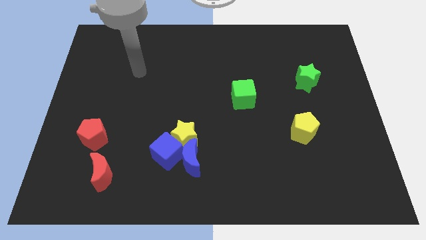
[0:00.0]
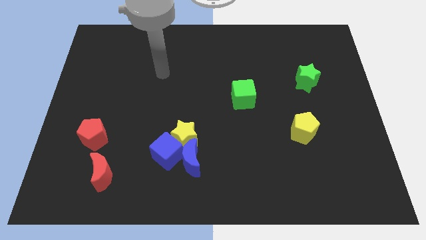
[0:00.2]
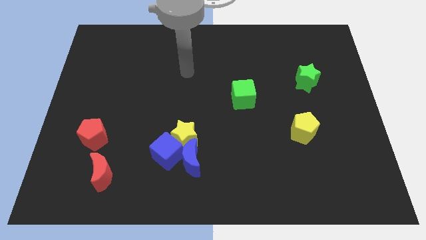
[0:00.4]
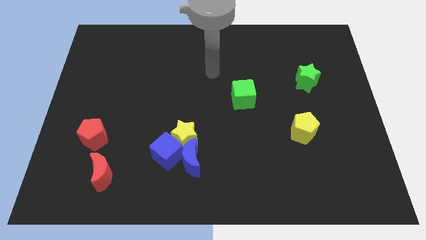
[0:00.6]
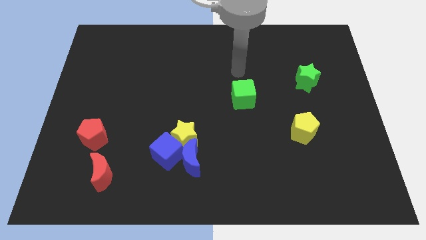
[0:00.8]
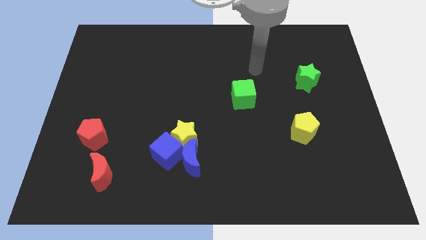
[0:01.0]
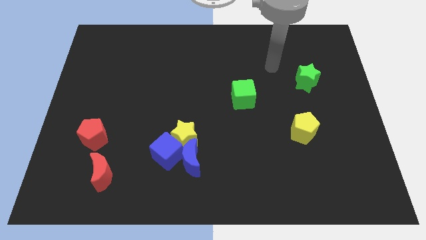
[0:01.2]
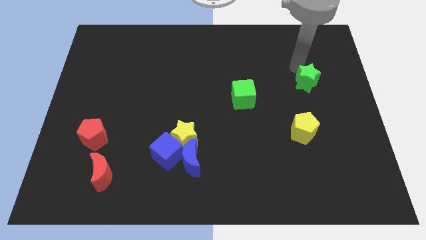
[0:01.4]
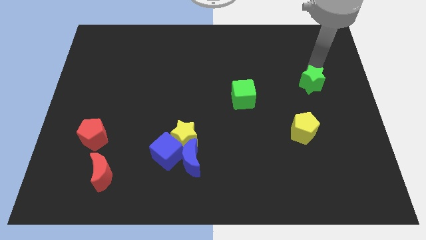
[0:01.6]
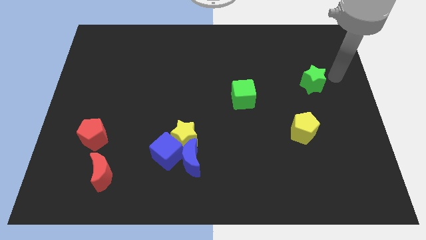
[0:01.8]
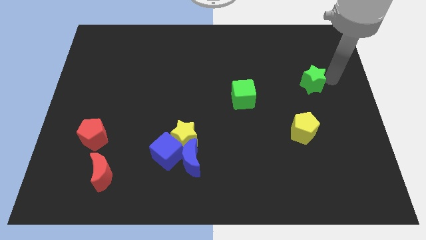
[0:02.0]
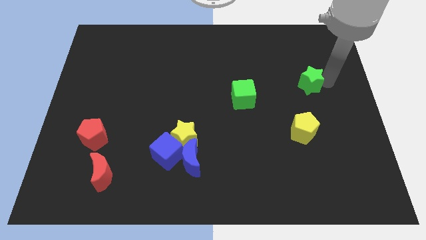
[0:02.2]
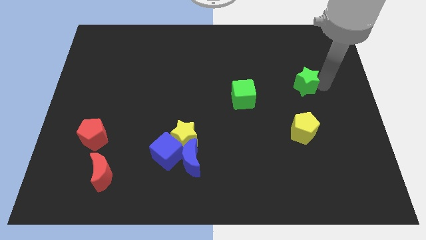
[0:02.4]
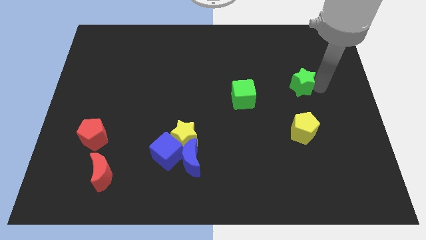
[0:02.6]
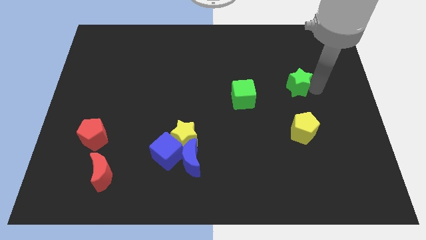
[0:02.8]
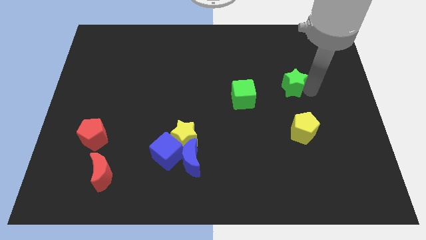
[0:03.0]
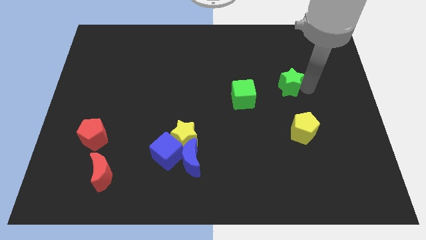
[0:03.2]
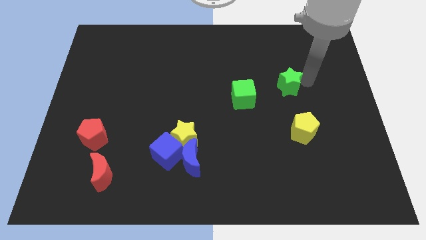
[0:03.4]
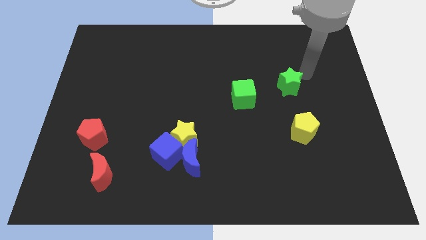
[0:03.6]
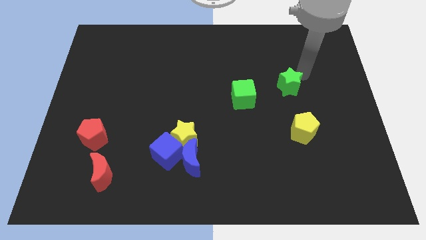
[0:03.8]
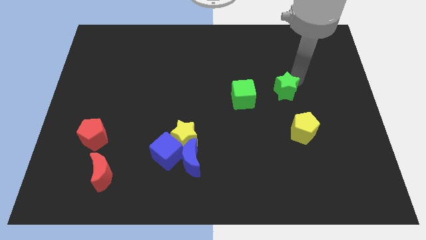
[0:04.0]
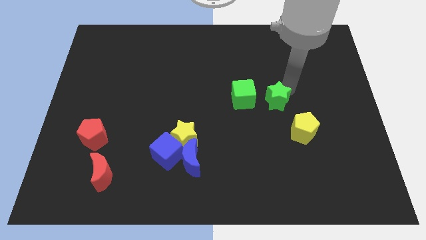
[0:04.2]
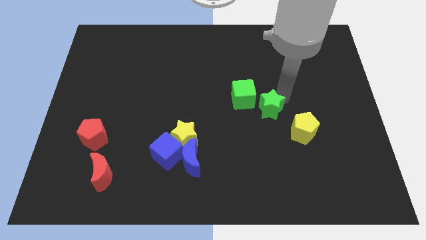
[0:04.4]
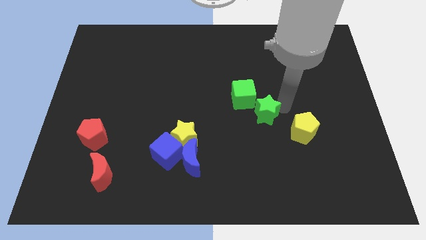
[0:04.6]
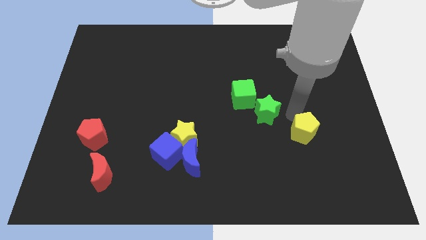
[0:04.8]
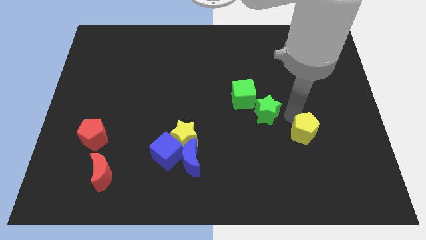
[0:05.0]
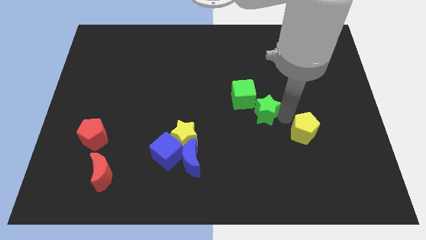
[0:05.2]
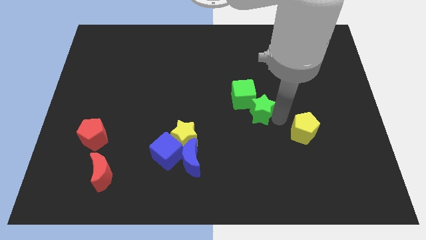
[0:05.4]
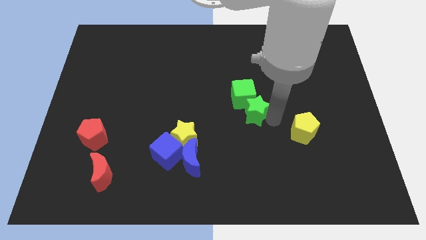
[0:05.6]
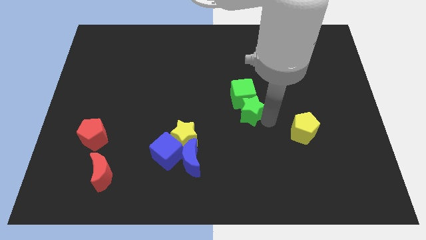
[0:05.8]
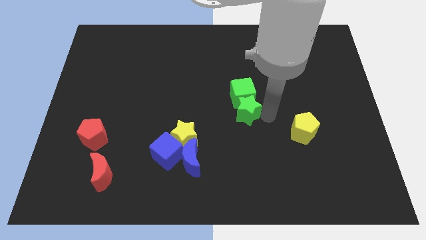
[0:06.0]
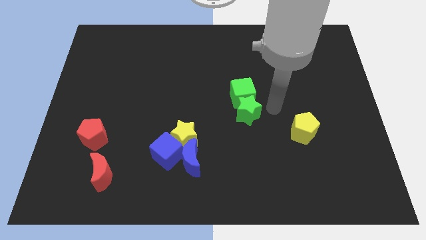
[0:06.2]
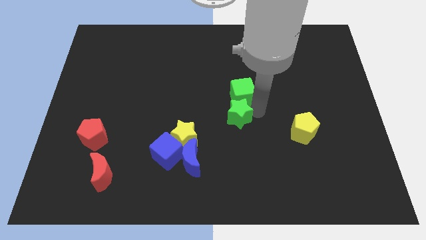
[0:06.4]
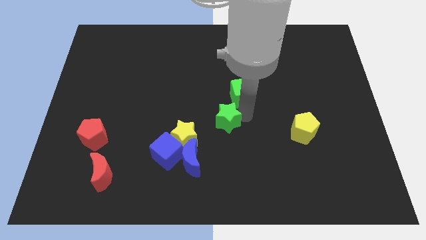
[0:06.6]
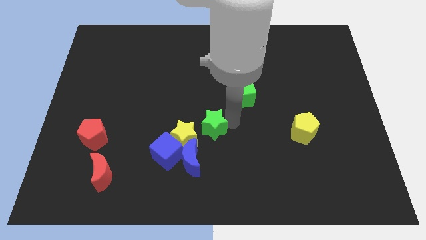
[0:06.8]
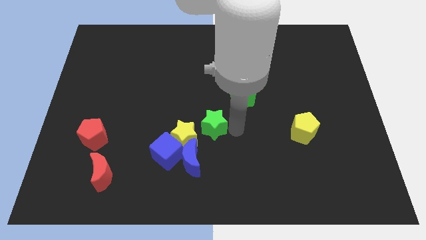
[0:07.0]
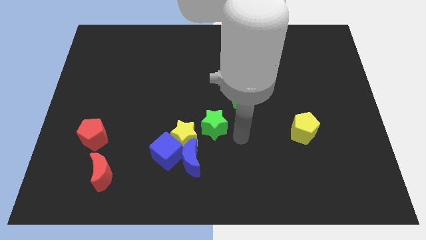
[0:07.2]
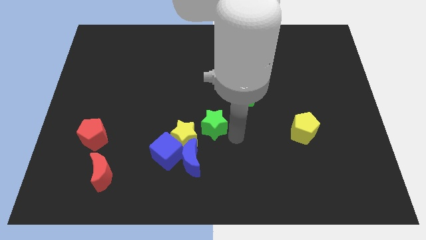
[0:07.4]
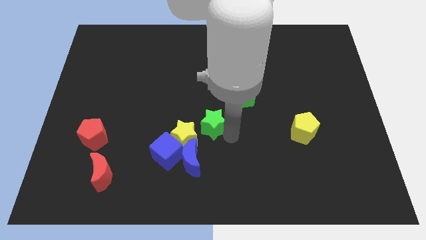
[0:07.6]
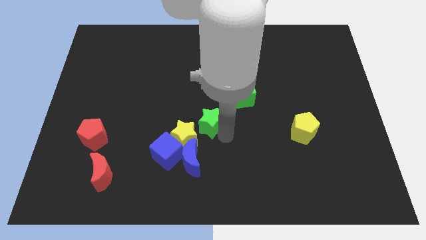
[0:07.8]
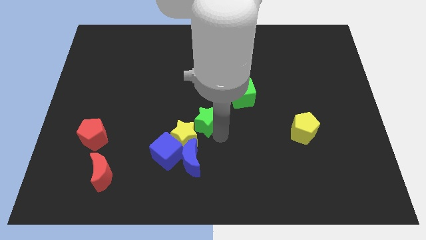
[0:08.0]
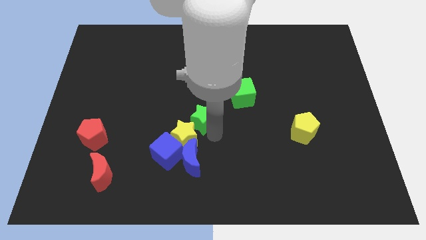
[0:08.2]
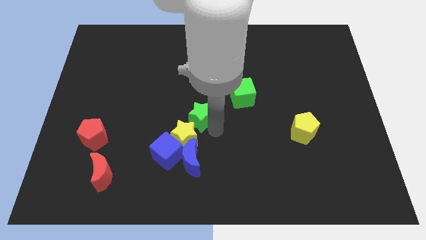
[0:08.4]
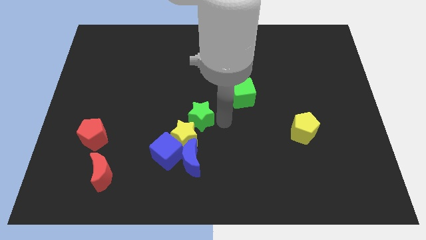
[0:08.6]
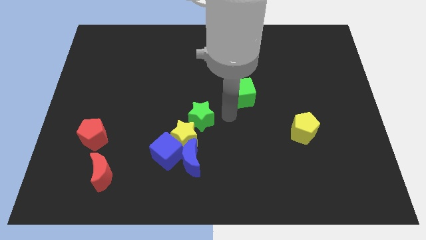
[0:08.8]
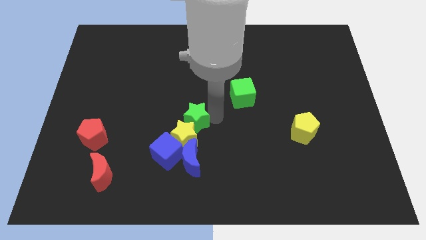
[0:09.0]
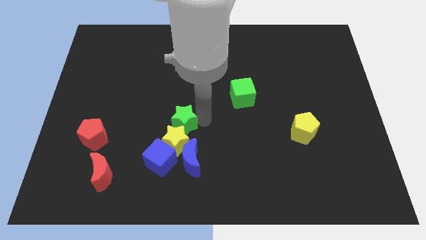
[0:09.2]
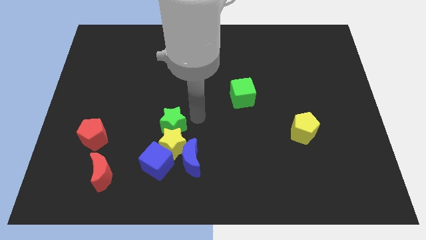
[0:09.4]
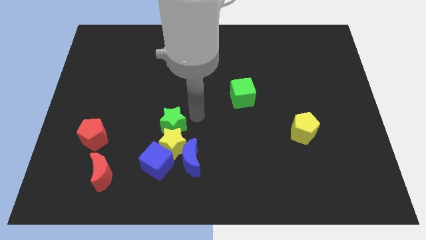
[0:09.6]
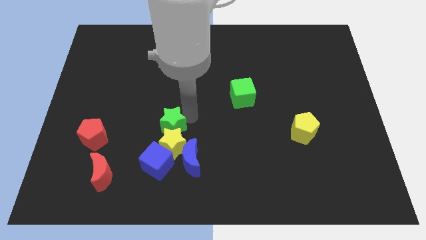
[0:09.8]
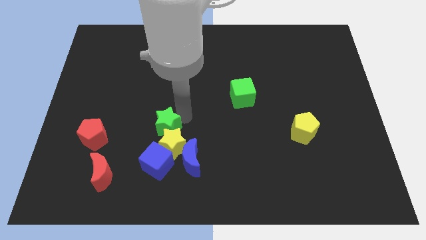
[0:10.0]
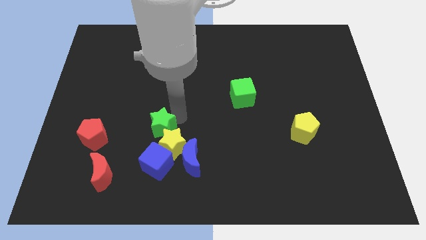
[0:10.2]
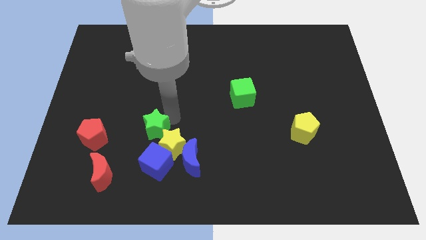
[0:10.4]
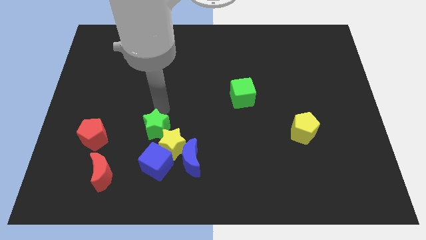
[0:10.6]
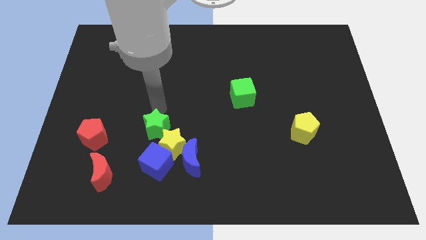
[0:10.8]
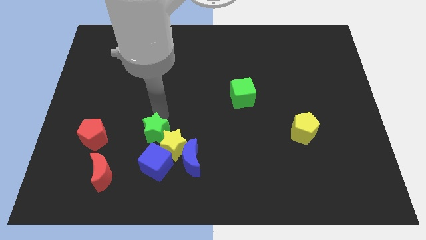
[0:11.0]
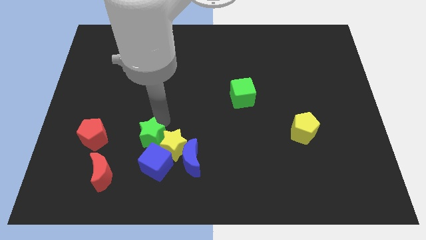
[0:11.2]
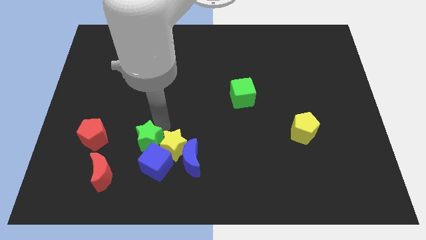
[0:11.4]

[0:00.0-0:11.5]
slide the green star next to the blue cube
